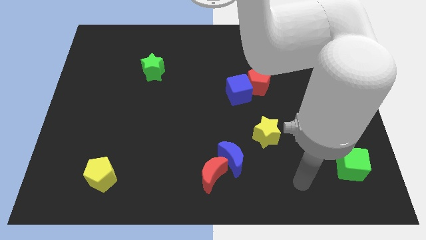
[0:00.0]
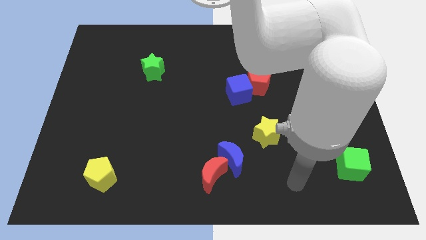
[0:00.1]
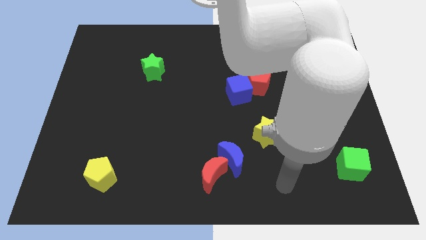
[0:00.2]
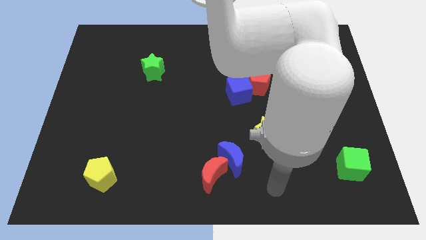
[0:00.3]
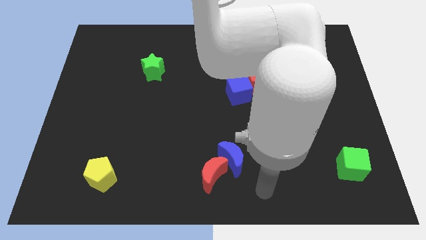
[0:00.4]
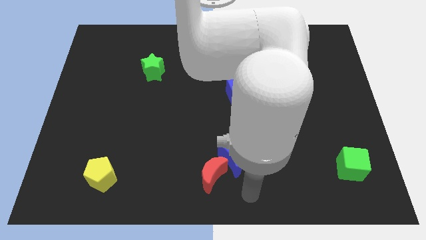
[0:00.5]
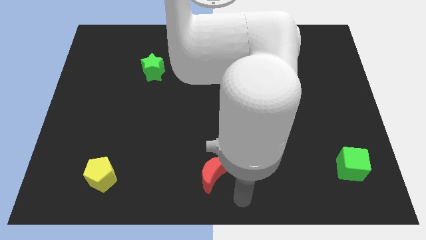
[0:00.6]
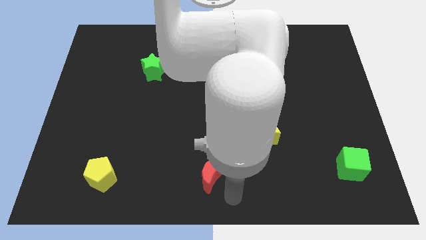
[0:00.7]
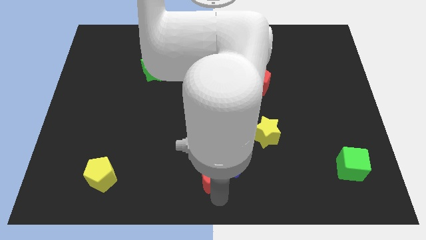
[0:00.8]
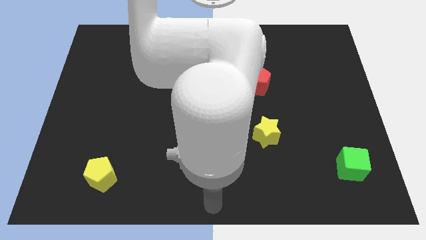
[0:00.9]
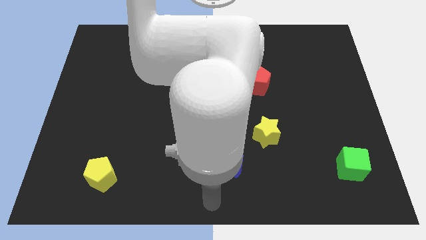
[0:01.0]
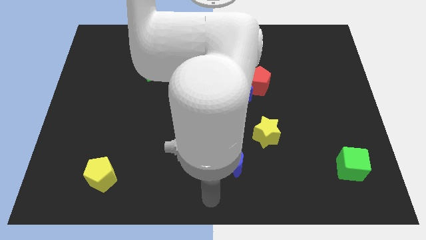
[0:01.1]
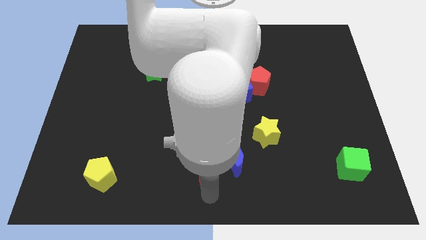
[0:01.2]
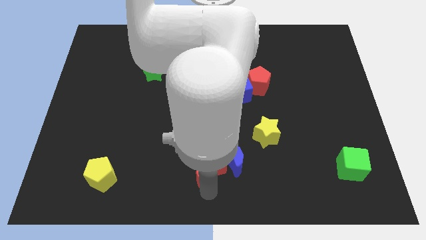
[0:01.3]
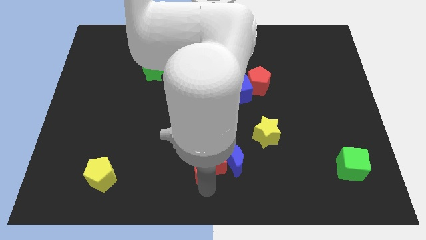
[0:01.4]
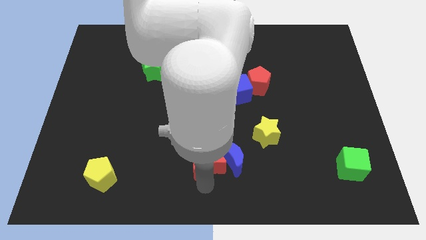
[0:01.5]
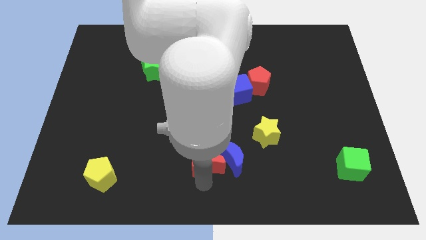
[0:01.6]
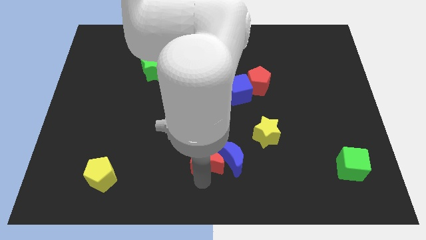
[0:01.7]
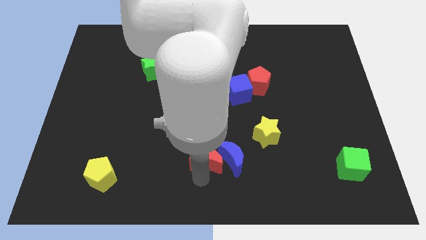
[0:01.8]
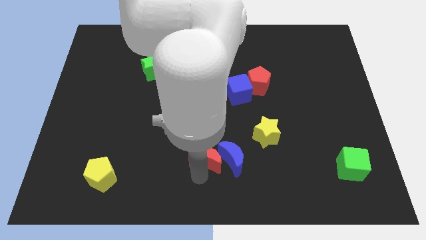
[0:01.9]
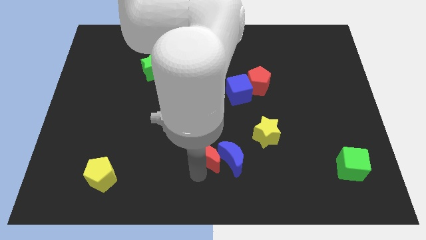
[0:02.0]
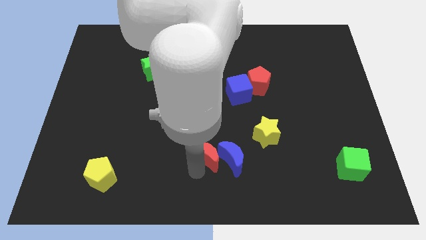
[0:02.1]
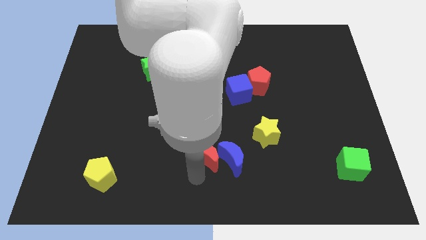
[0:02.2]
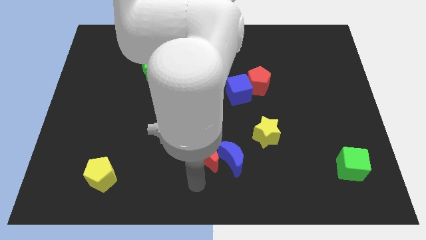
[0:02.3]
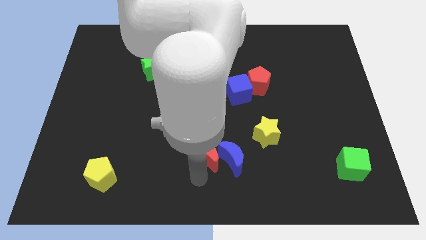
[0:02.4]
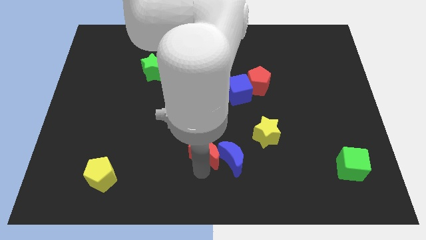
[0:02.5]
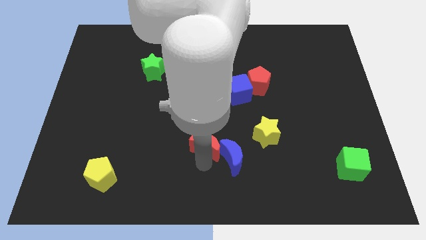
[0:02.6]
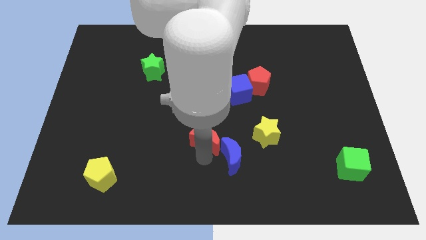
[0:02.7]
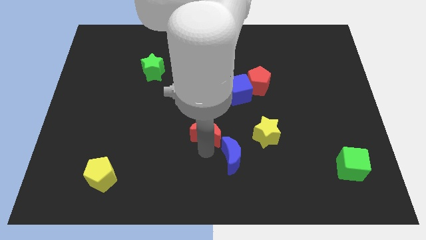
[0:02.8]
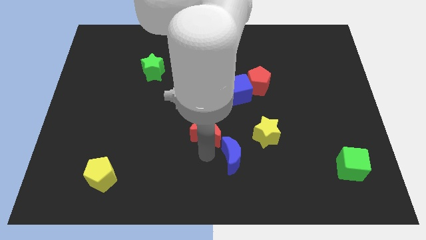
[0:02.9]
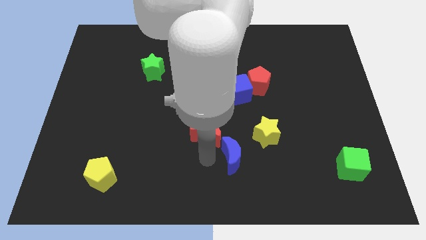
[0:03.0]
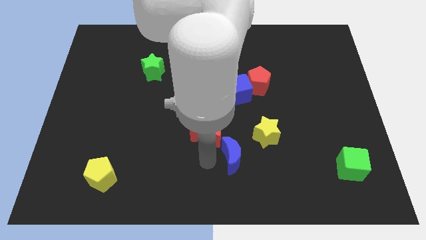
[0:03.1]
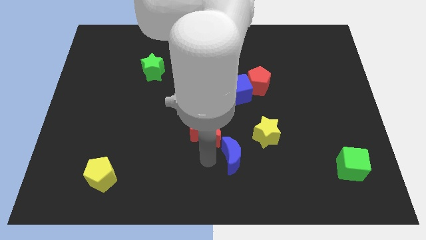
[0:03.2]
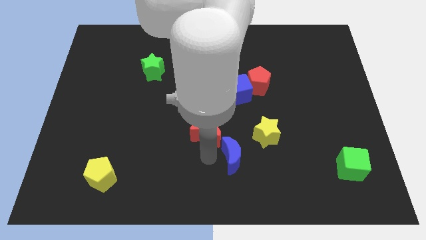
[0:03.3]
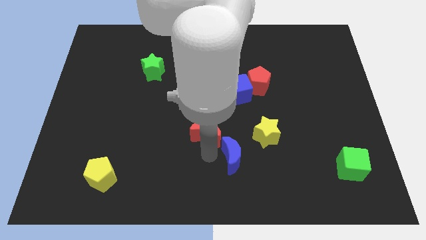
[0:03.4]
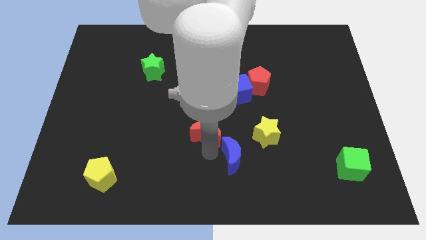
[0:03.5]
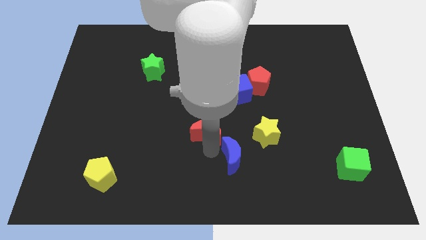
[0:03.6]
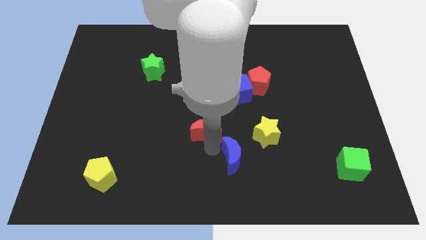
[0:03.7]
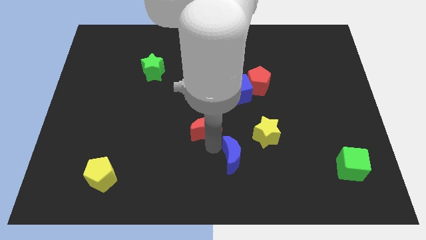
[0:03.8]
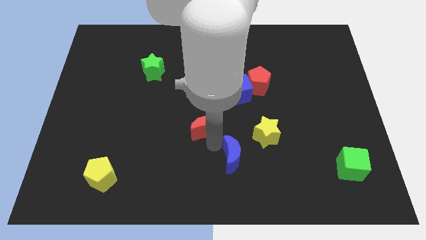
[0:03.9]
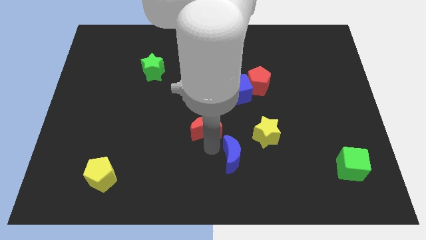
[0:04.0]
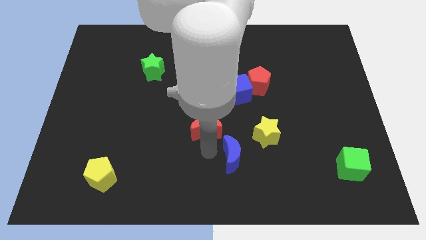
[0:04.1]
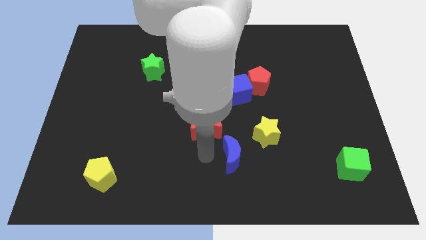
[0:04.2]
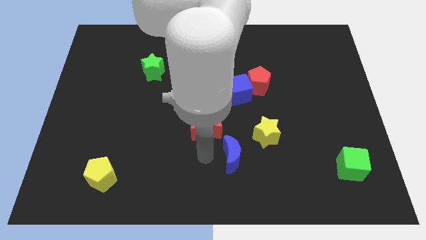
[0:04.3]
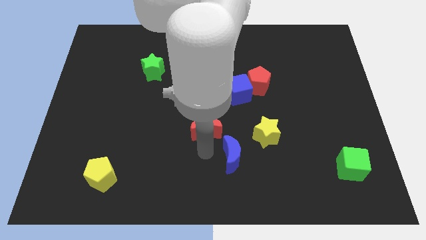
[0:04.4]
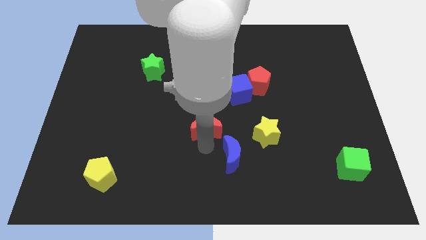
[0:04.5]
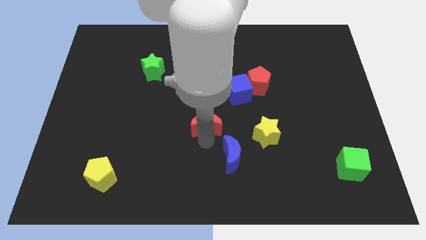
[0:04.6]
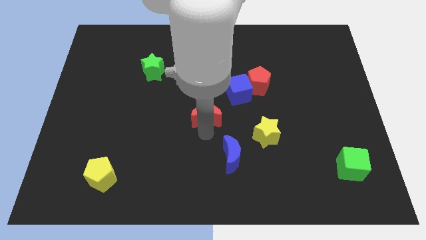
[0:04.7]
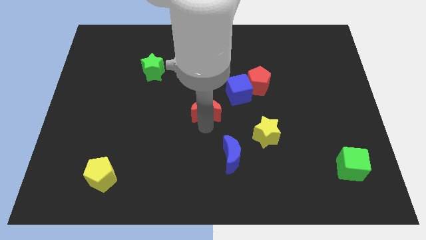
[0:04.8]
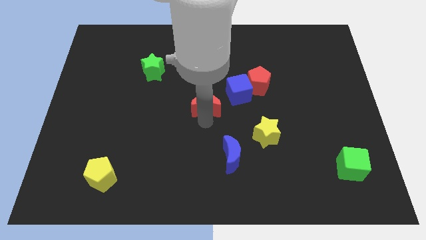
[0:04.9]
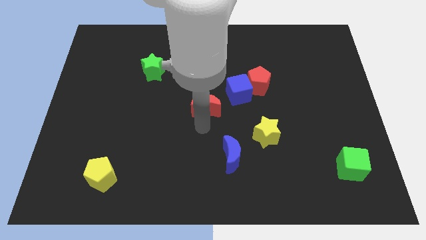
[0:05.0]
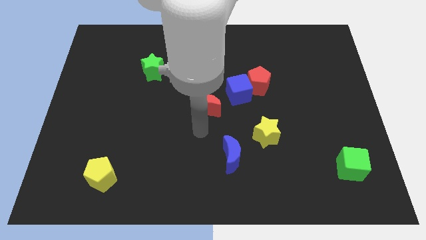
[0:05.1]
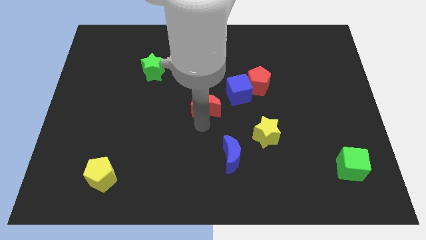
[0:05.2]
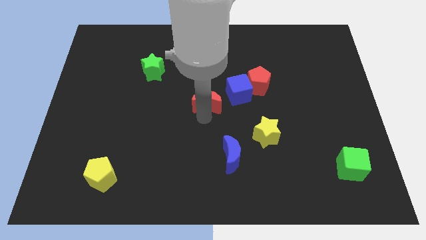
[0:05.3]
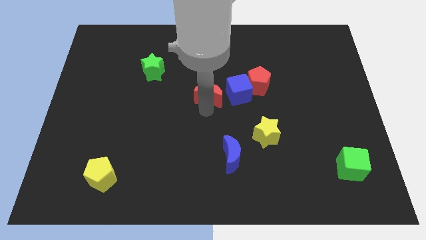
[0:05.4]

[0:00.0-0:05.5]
push the red moon upwards

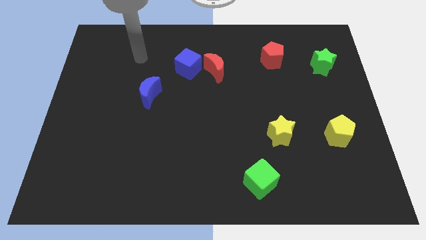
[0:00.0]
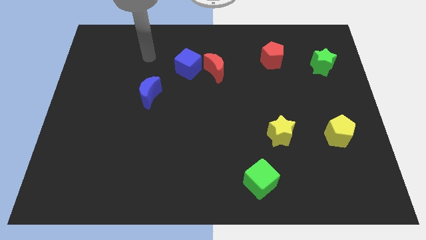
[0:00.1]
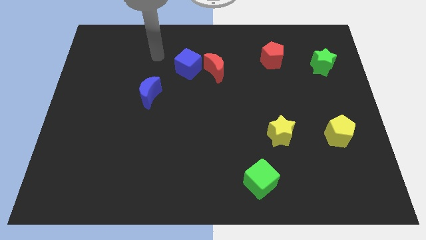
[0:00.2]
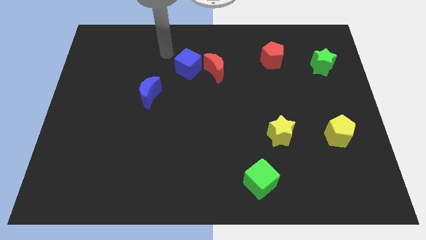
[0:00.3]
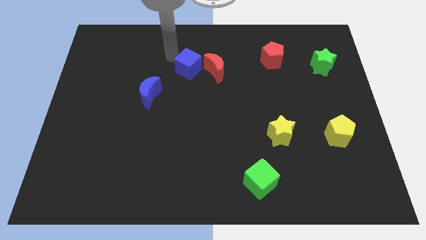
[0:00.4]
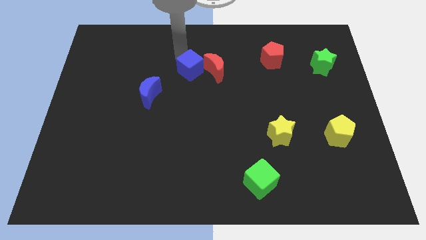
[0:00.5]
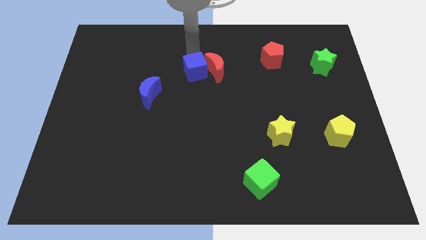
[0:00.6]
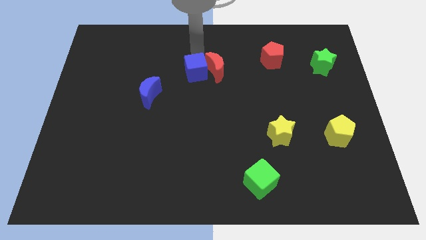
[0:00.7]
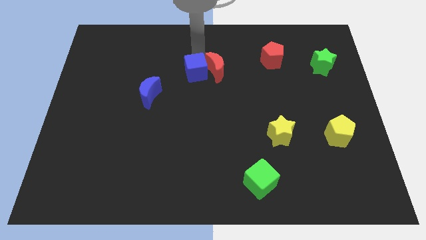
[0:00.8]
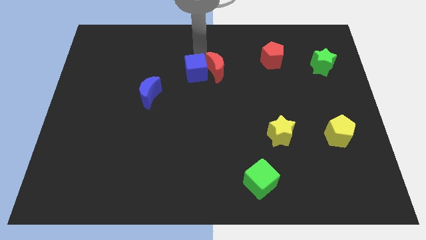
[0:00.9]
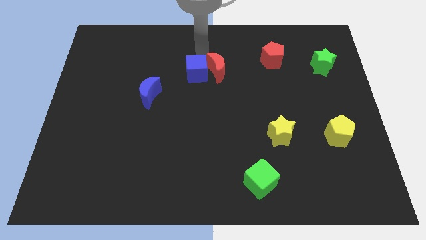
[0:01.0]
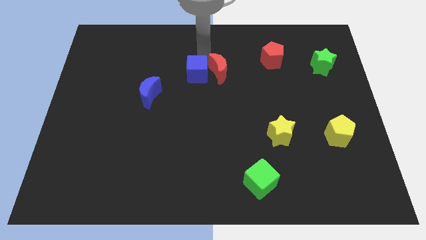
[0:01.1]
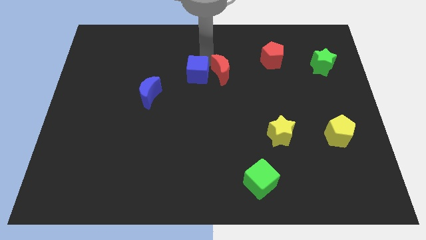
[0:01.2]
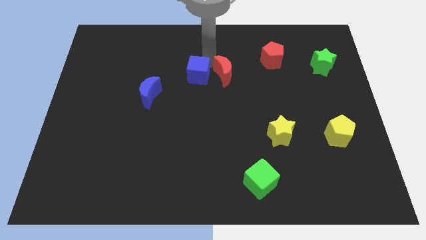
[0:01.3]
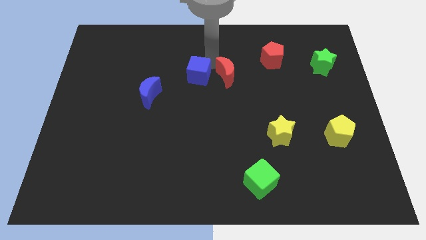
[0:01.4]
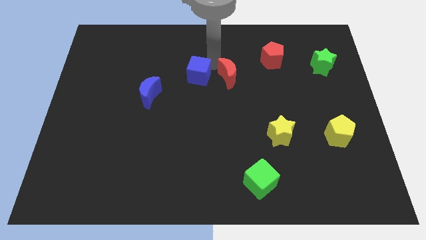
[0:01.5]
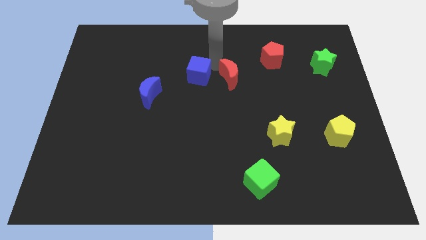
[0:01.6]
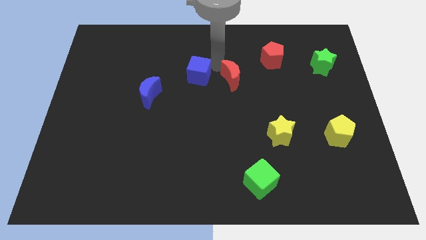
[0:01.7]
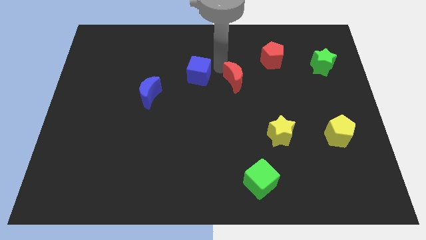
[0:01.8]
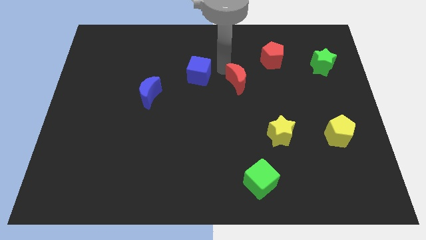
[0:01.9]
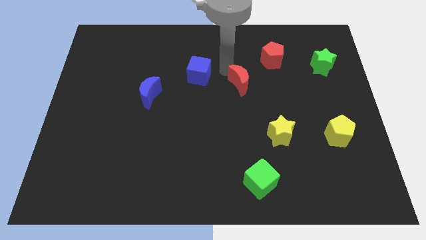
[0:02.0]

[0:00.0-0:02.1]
slide the red moon slightly diagonally downwards and right

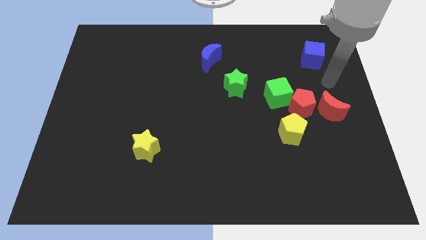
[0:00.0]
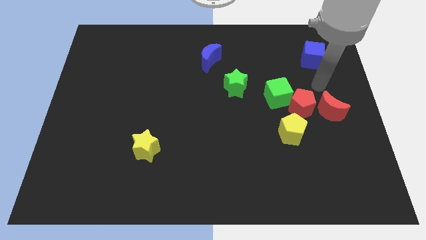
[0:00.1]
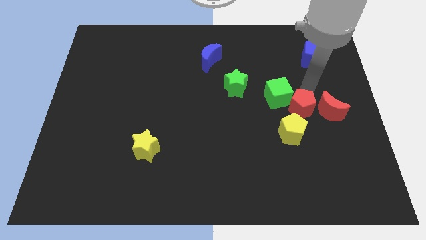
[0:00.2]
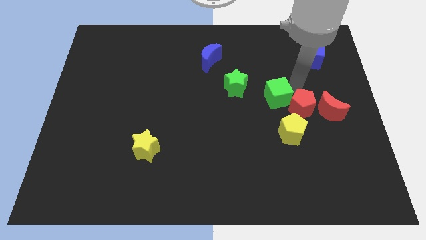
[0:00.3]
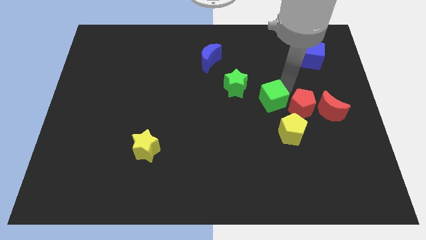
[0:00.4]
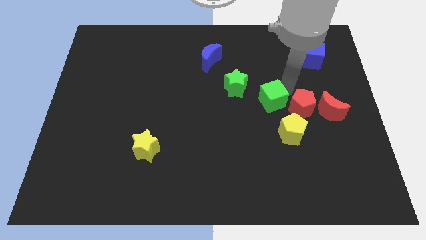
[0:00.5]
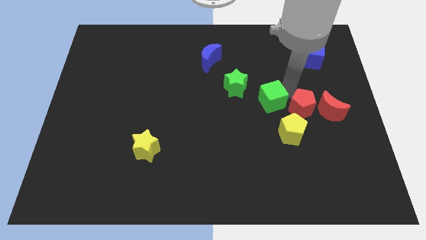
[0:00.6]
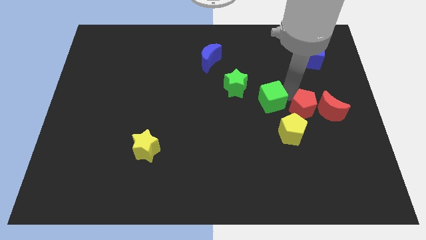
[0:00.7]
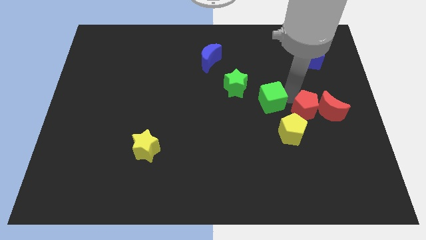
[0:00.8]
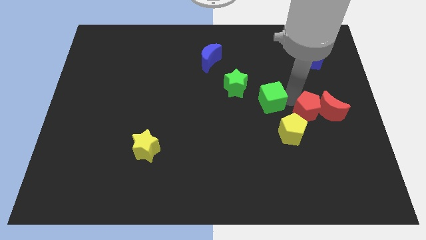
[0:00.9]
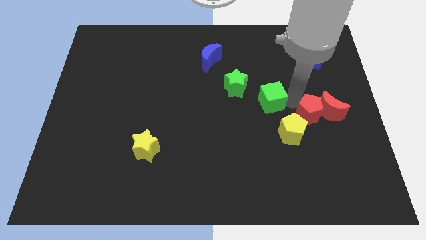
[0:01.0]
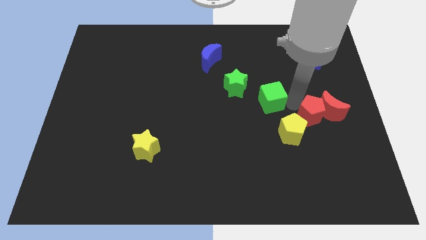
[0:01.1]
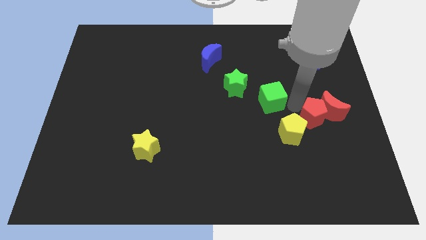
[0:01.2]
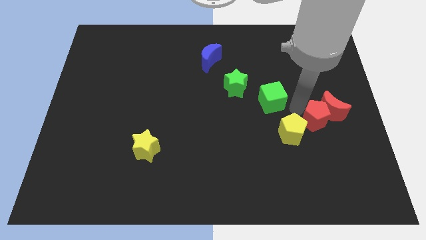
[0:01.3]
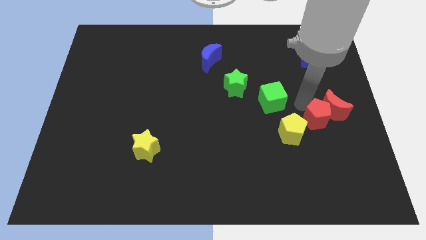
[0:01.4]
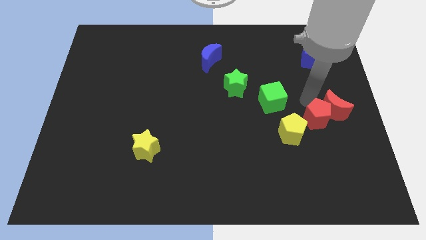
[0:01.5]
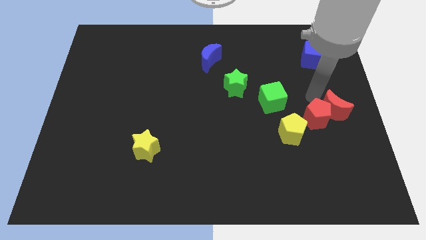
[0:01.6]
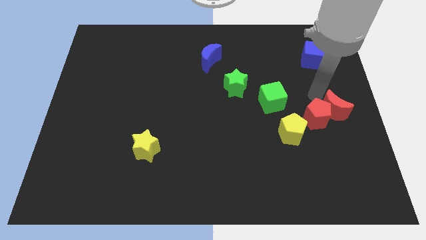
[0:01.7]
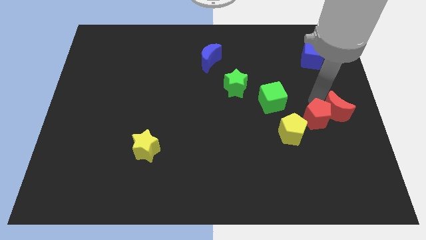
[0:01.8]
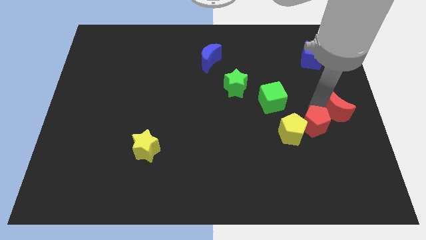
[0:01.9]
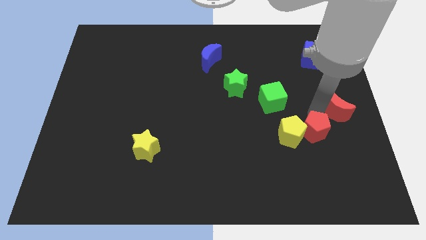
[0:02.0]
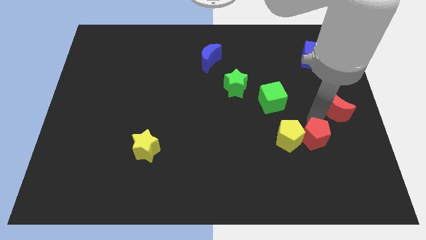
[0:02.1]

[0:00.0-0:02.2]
move the red pentagon down slightly
